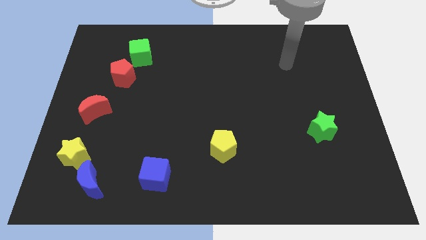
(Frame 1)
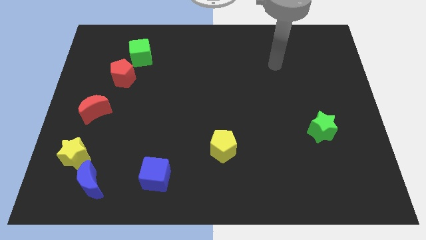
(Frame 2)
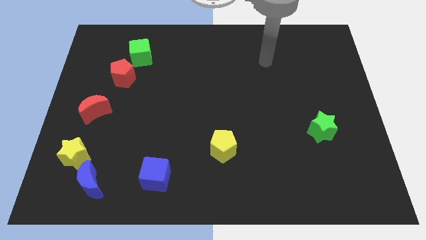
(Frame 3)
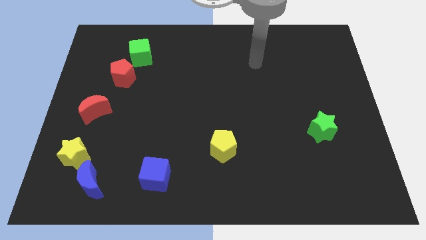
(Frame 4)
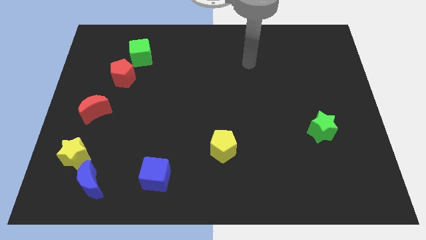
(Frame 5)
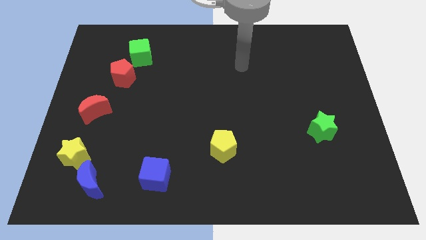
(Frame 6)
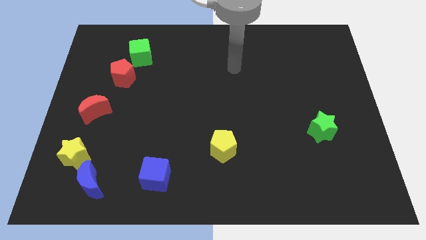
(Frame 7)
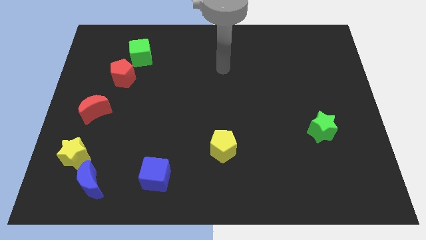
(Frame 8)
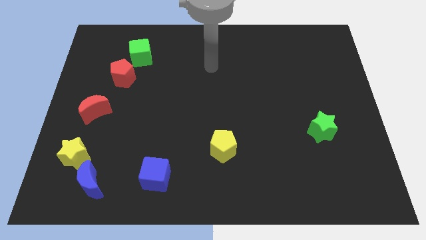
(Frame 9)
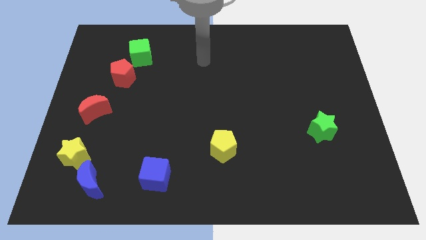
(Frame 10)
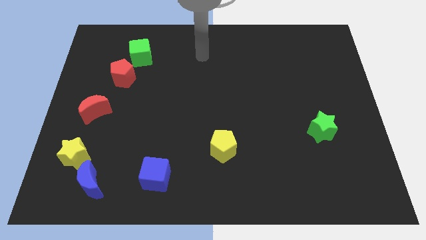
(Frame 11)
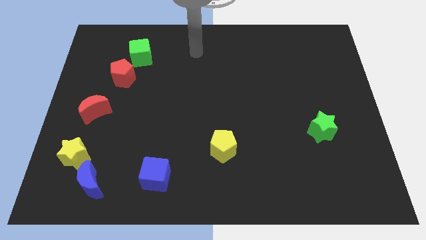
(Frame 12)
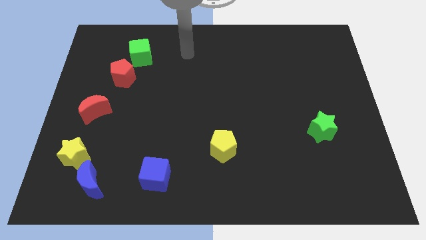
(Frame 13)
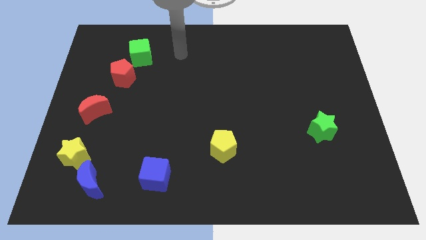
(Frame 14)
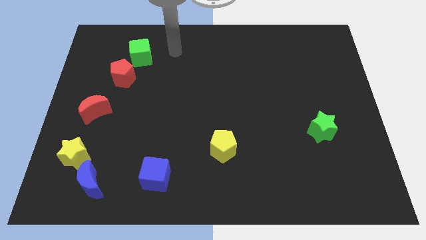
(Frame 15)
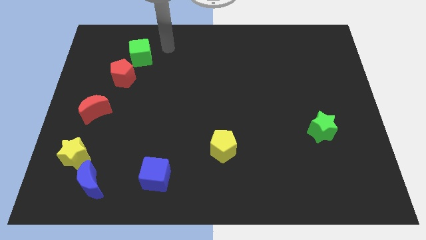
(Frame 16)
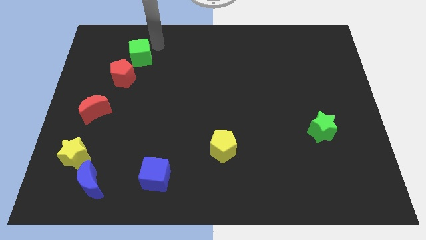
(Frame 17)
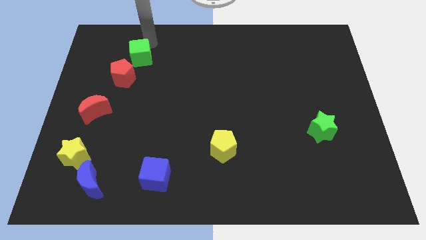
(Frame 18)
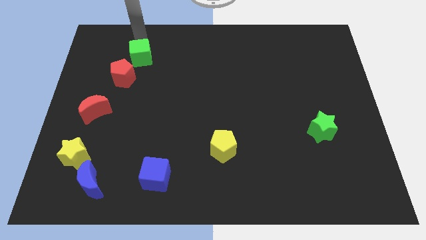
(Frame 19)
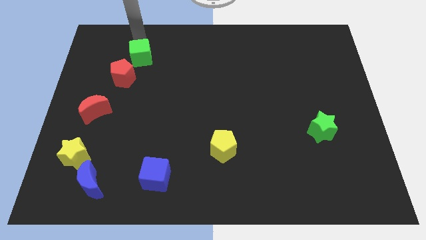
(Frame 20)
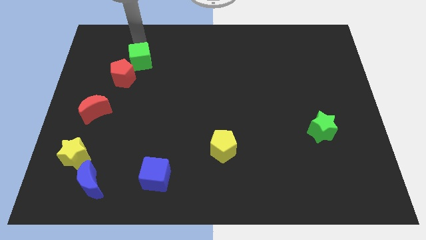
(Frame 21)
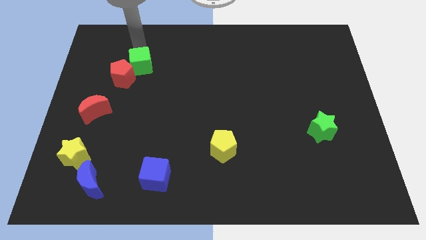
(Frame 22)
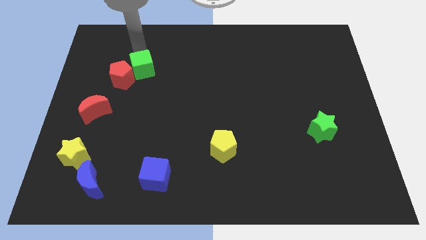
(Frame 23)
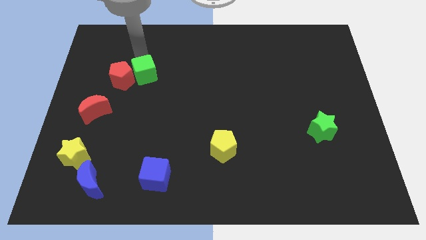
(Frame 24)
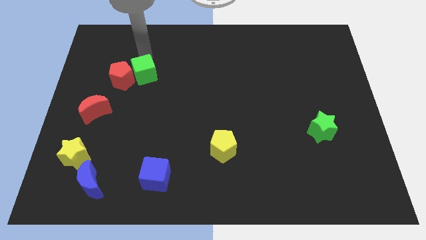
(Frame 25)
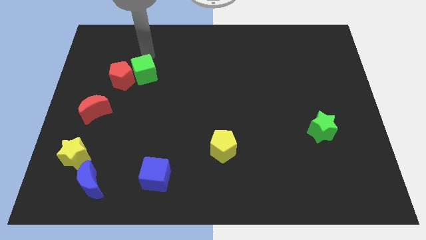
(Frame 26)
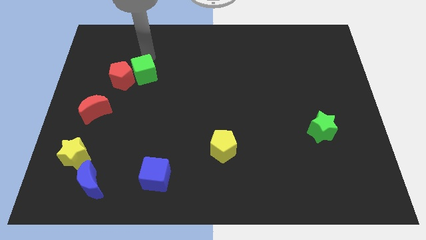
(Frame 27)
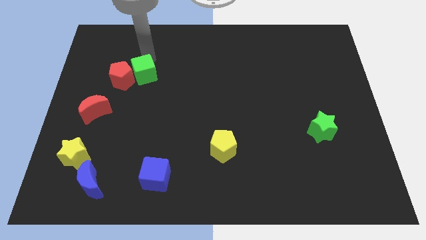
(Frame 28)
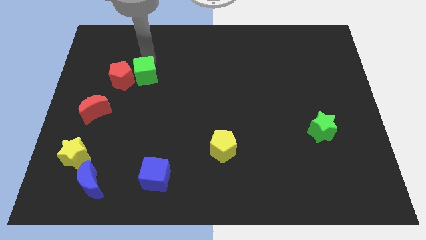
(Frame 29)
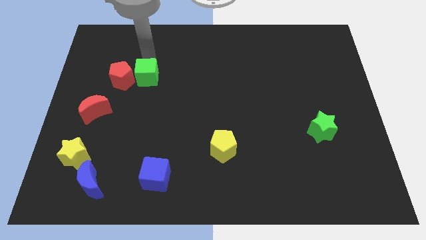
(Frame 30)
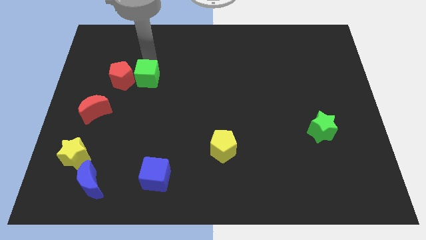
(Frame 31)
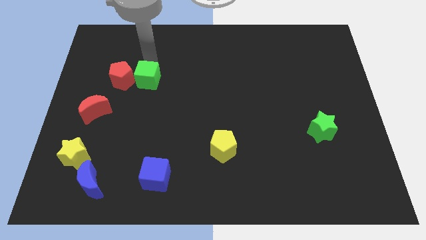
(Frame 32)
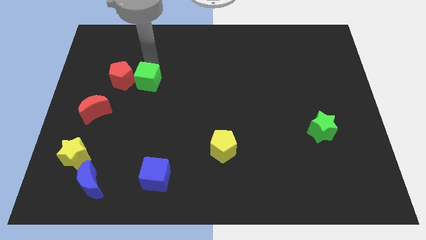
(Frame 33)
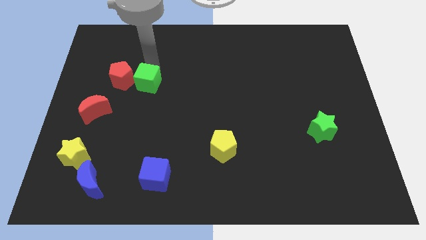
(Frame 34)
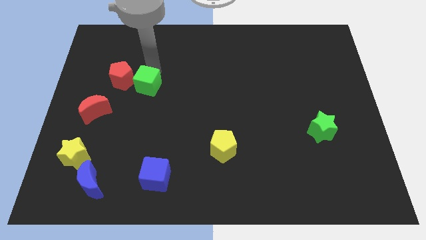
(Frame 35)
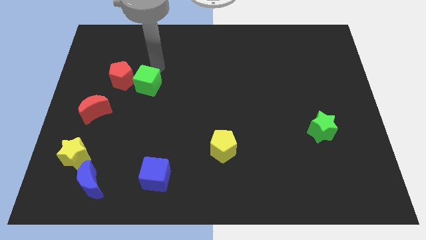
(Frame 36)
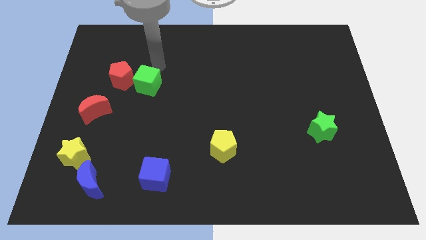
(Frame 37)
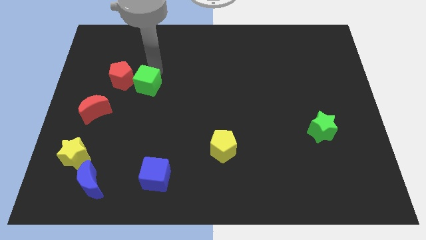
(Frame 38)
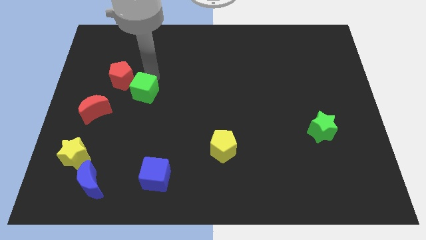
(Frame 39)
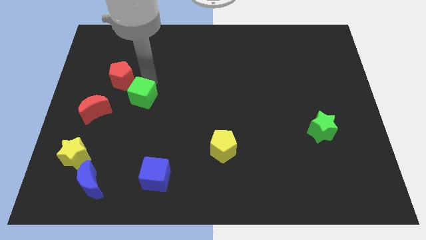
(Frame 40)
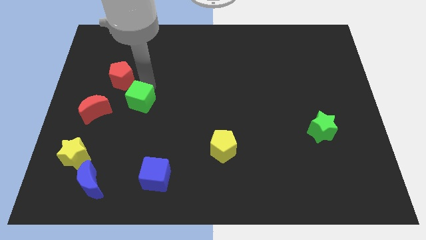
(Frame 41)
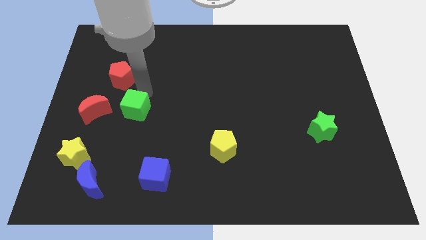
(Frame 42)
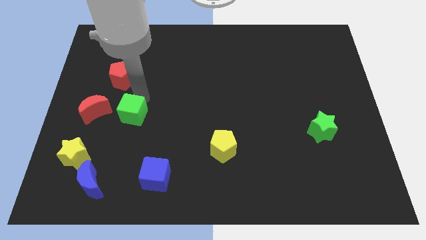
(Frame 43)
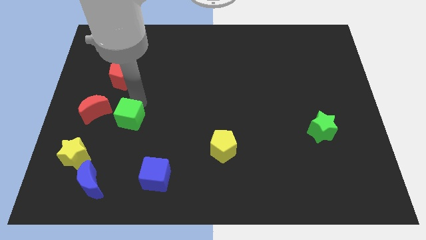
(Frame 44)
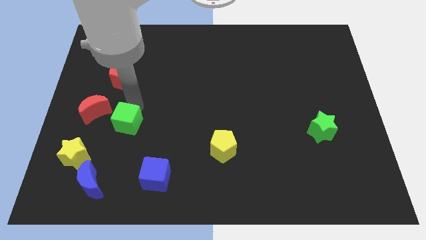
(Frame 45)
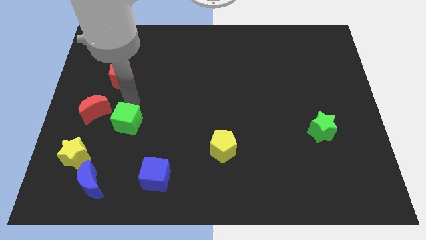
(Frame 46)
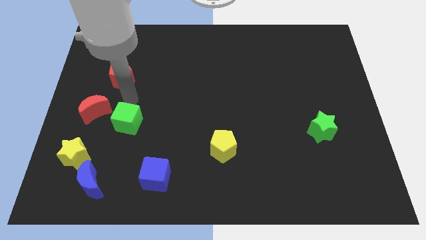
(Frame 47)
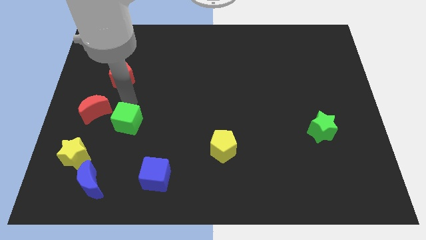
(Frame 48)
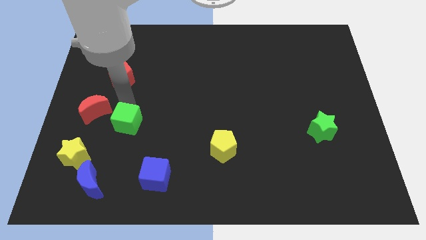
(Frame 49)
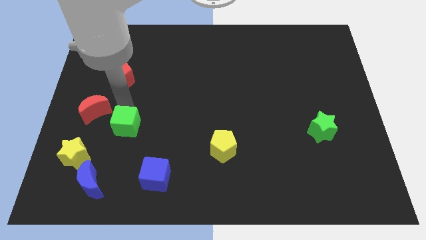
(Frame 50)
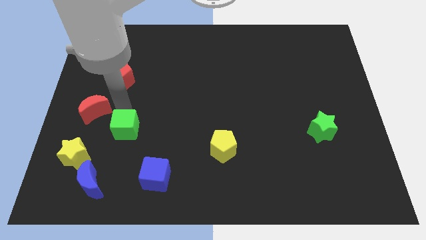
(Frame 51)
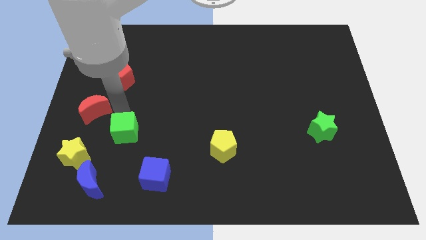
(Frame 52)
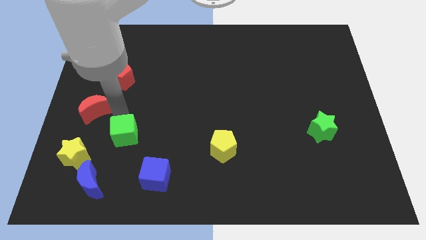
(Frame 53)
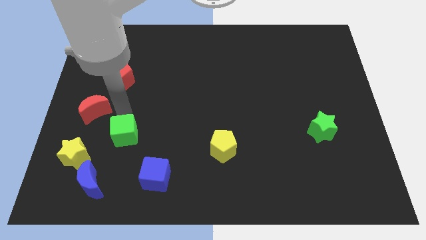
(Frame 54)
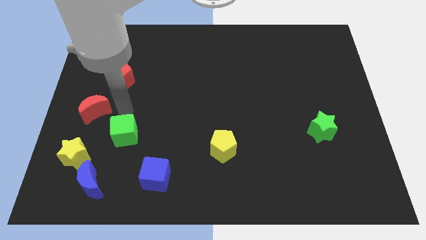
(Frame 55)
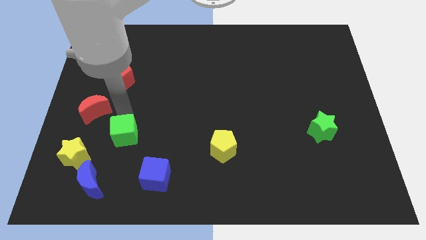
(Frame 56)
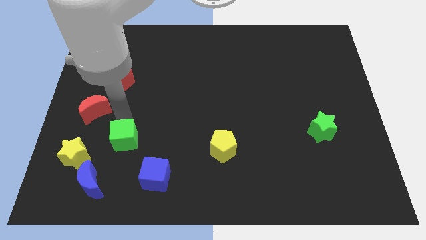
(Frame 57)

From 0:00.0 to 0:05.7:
push the green cube to the right side of the yellow star
